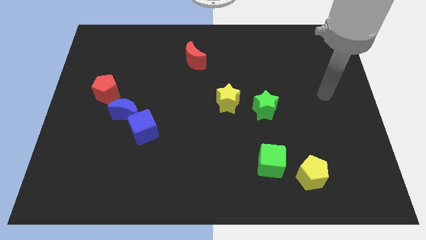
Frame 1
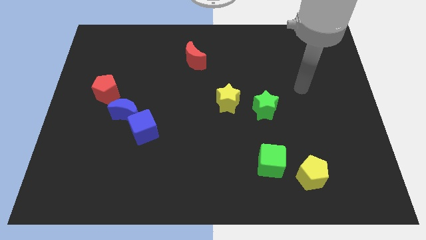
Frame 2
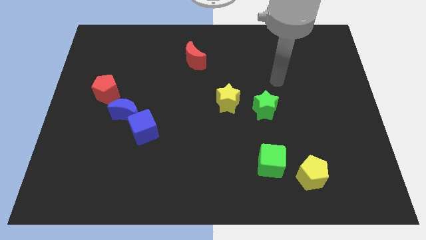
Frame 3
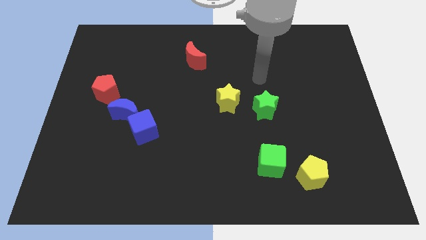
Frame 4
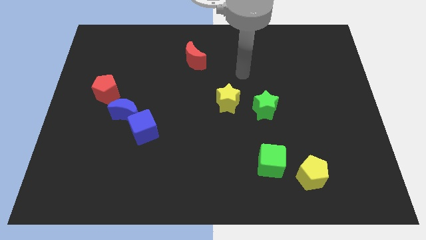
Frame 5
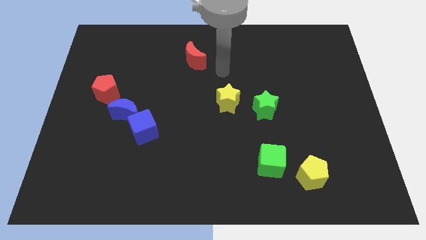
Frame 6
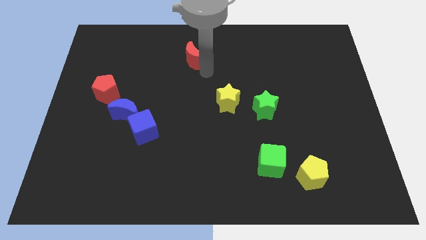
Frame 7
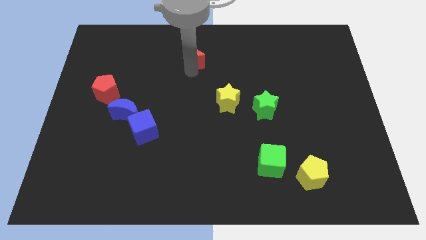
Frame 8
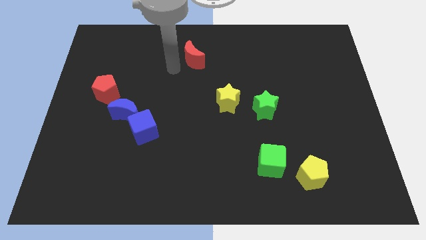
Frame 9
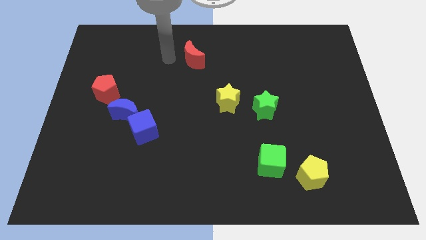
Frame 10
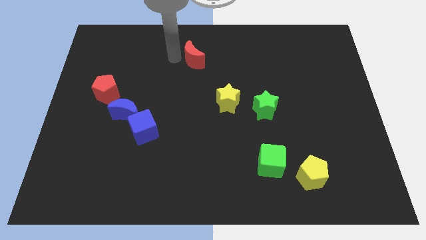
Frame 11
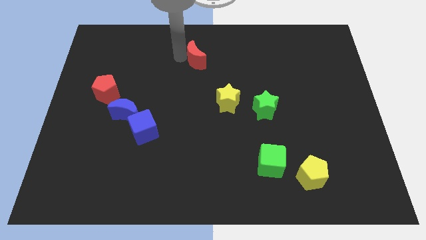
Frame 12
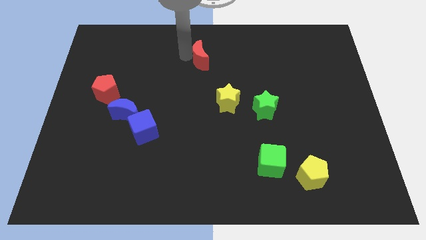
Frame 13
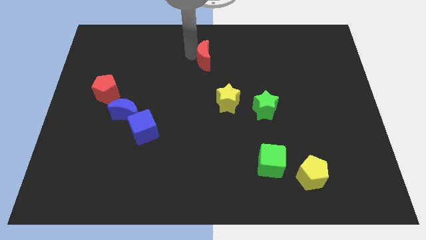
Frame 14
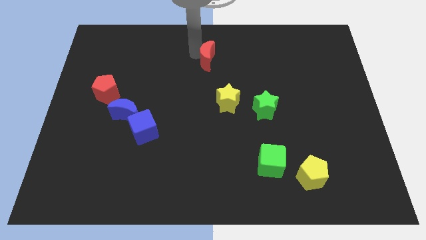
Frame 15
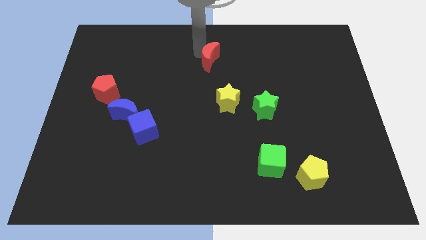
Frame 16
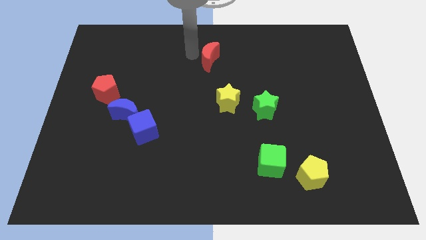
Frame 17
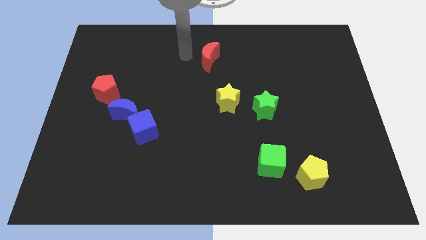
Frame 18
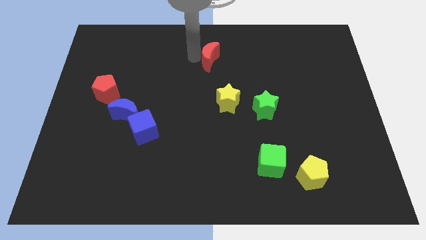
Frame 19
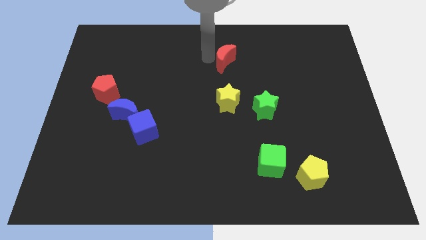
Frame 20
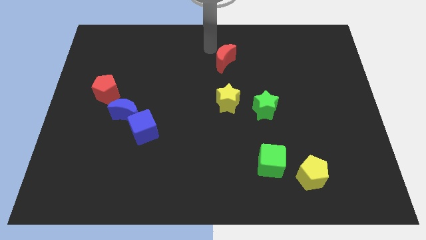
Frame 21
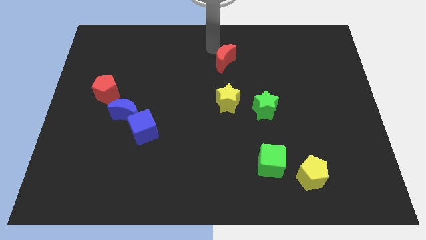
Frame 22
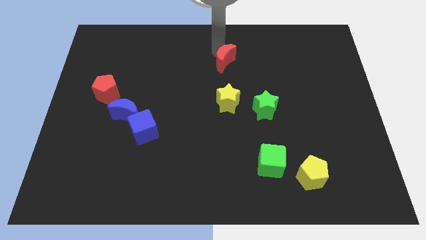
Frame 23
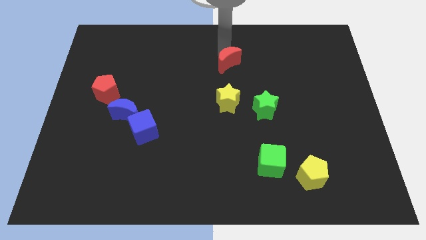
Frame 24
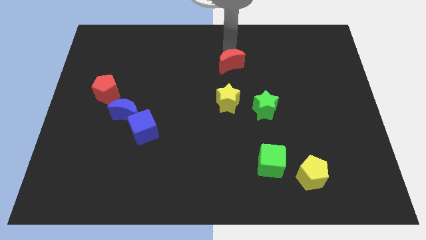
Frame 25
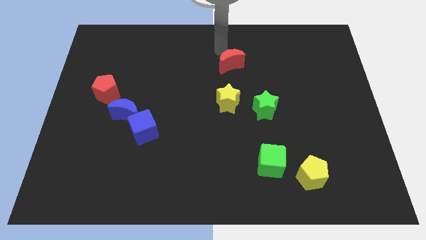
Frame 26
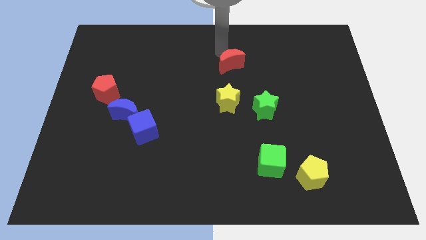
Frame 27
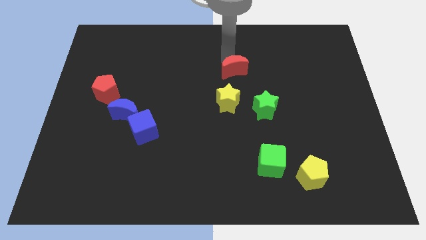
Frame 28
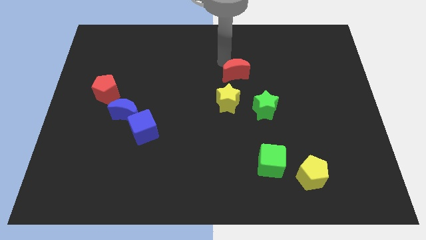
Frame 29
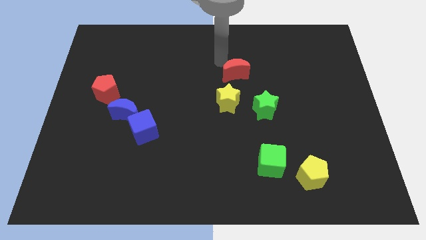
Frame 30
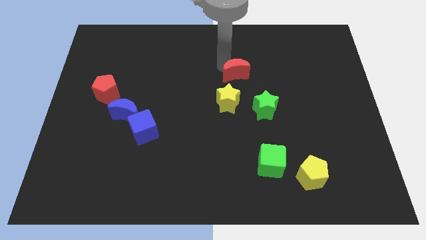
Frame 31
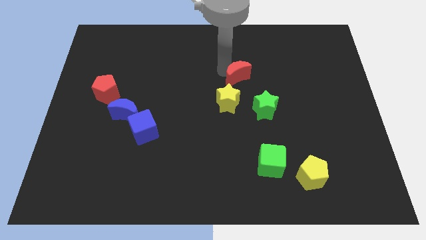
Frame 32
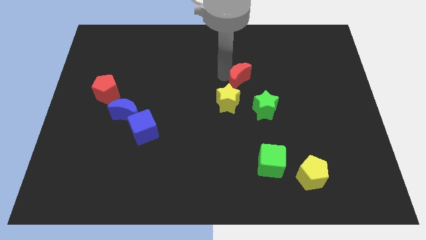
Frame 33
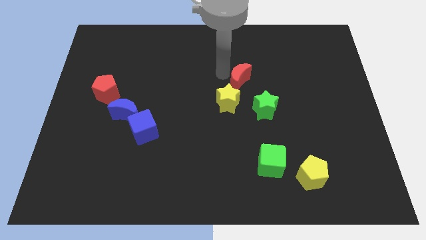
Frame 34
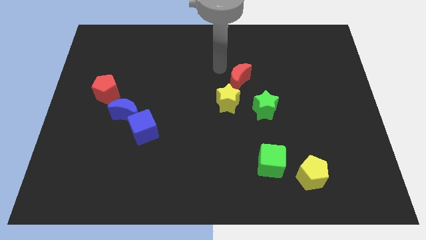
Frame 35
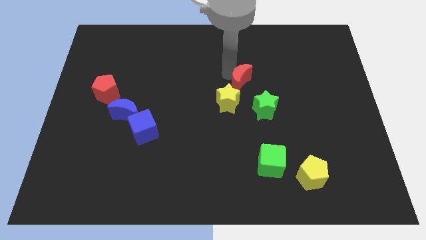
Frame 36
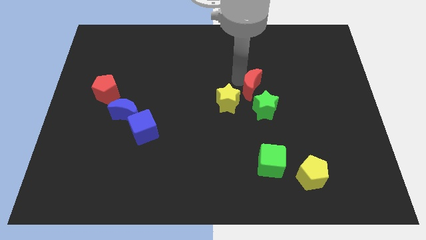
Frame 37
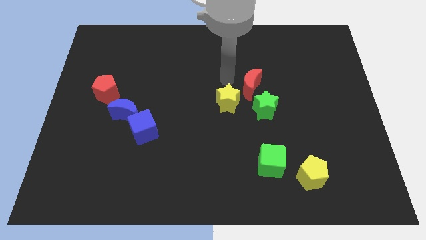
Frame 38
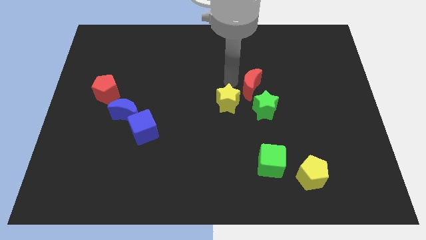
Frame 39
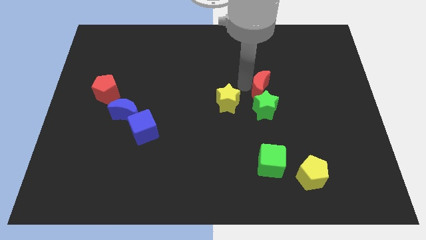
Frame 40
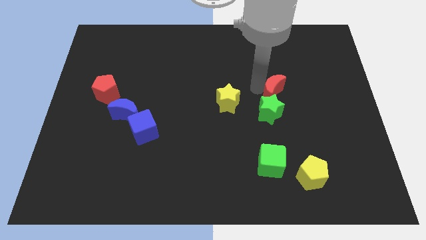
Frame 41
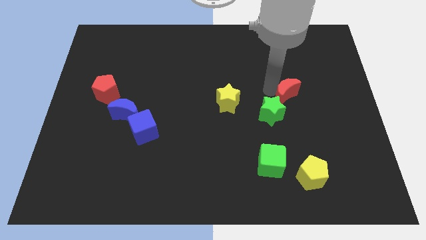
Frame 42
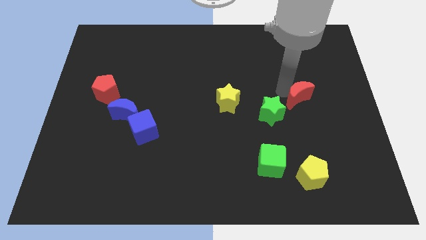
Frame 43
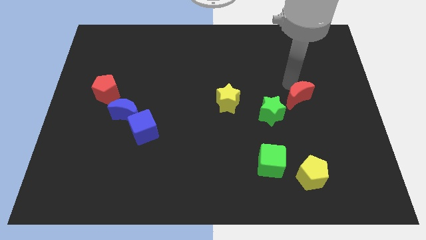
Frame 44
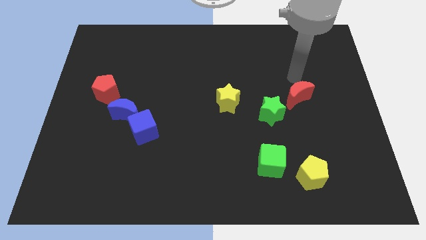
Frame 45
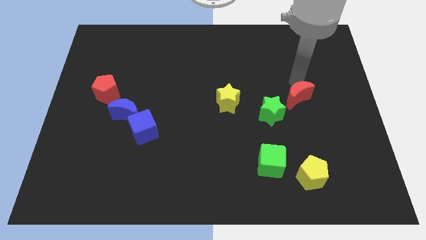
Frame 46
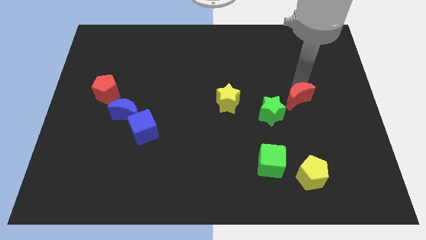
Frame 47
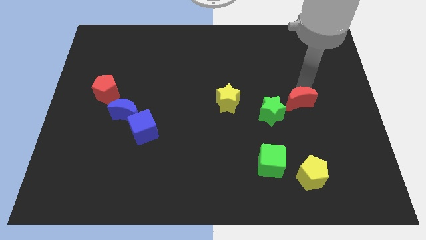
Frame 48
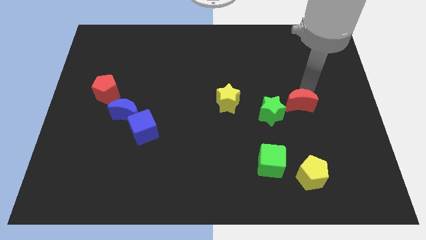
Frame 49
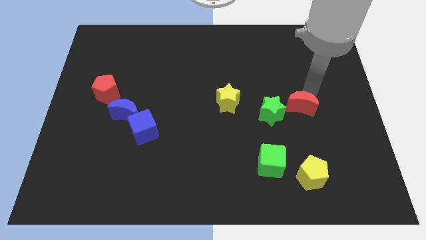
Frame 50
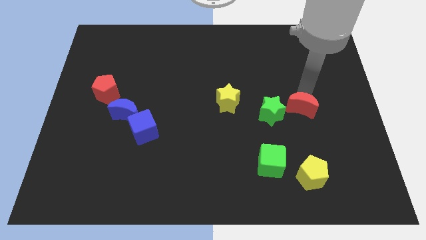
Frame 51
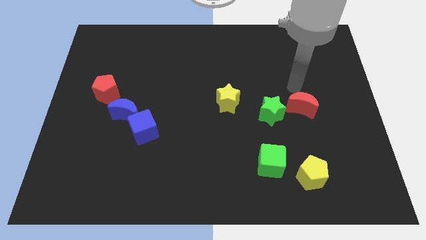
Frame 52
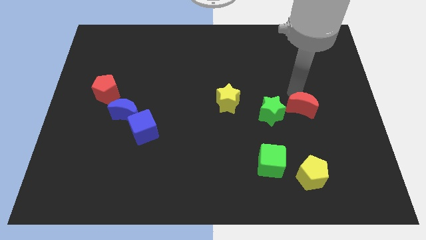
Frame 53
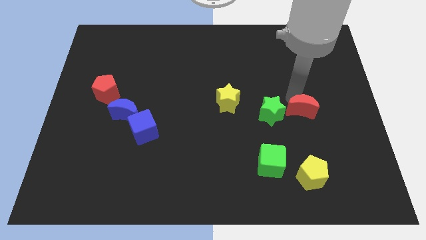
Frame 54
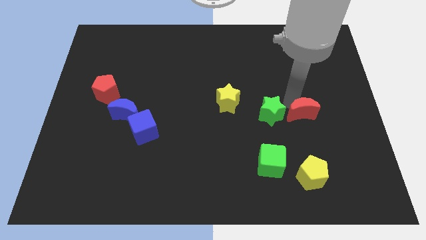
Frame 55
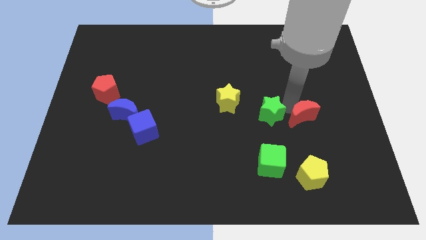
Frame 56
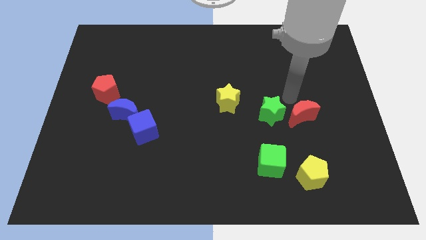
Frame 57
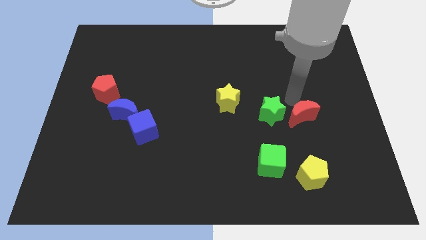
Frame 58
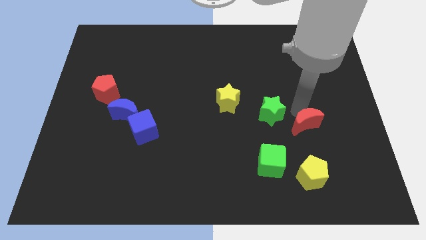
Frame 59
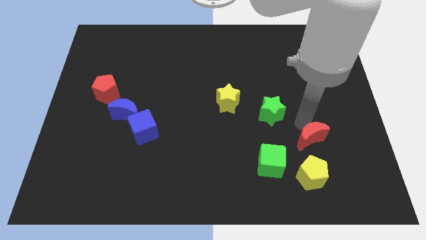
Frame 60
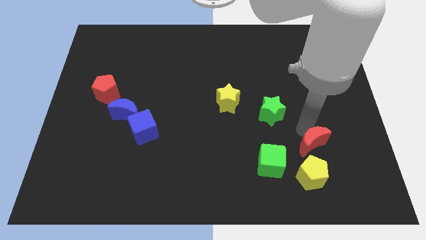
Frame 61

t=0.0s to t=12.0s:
put the red moon to the top right of the yellow pentagon
